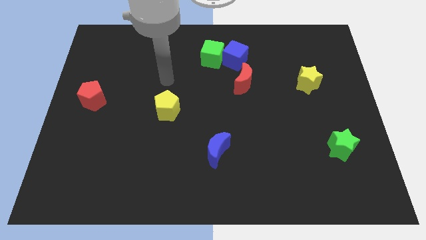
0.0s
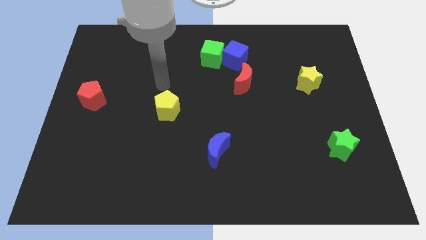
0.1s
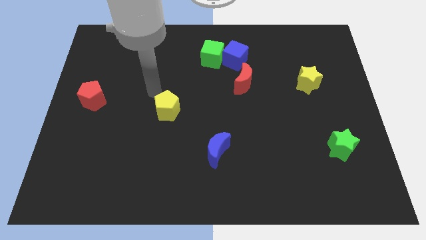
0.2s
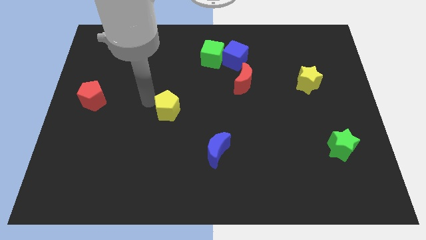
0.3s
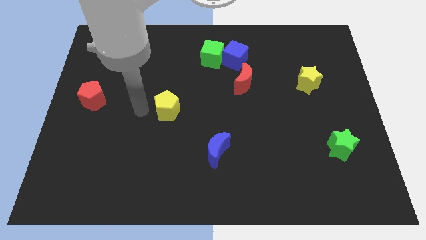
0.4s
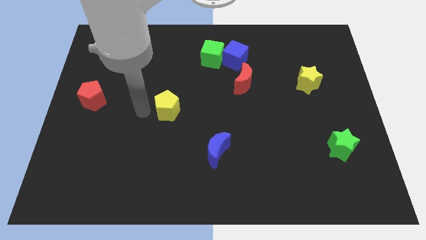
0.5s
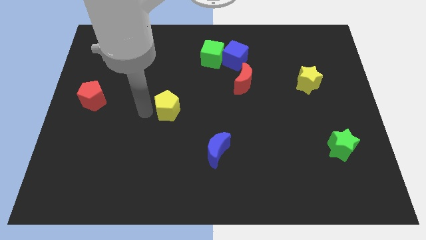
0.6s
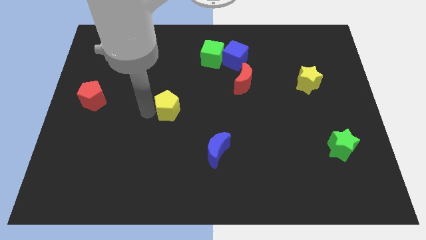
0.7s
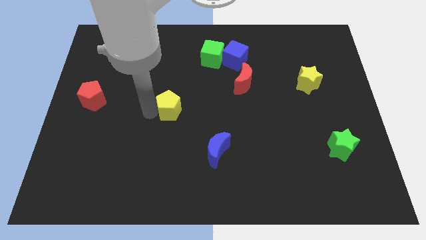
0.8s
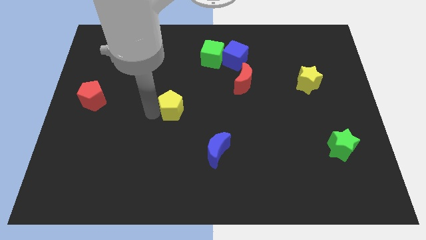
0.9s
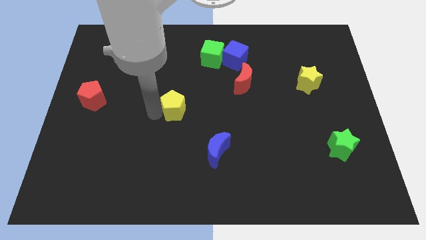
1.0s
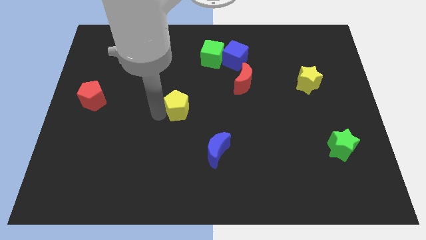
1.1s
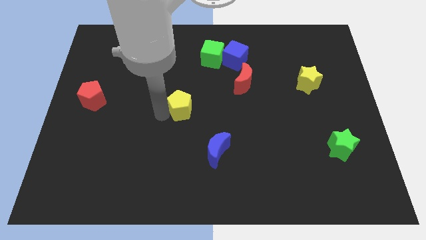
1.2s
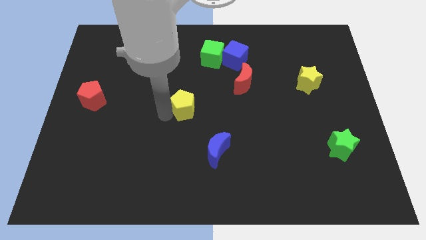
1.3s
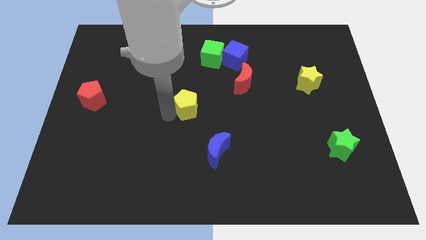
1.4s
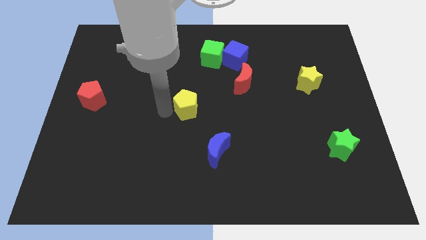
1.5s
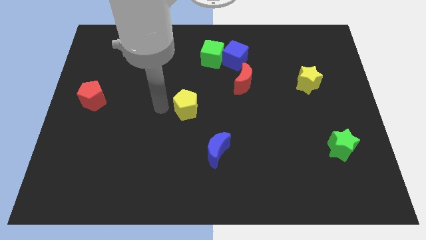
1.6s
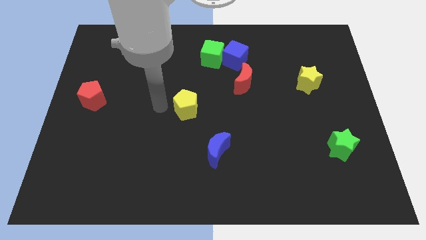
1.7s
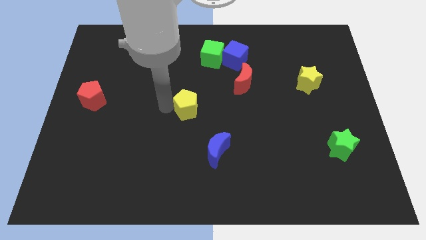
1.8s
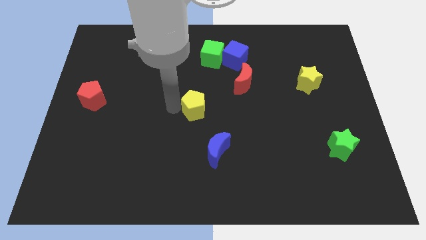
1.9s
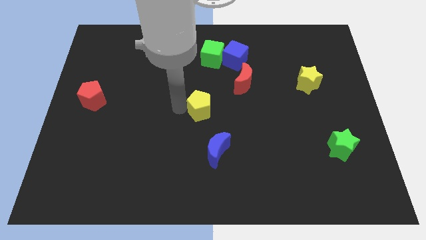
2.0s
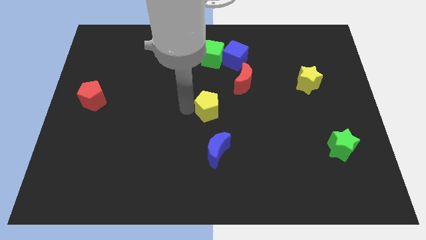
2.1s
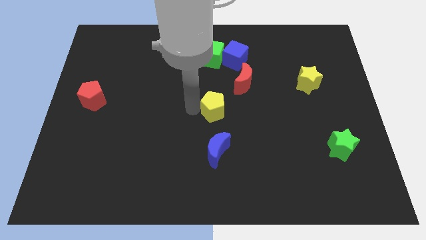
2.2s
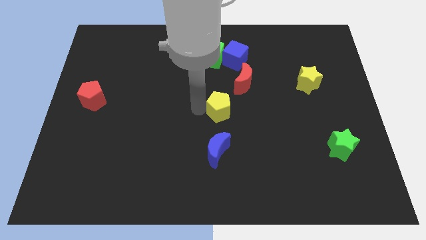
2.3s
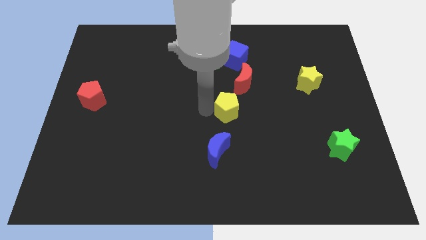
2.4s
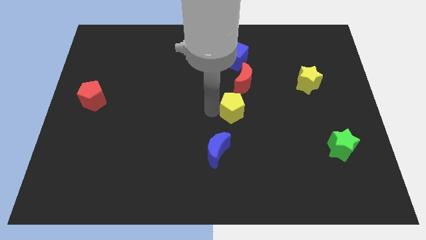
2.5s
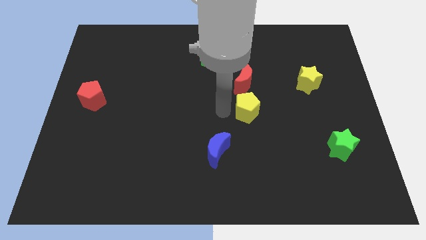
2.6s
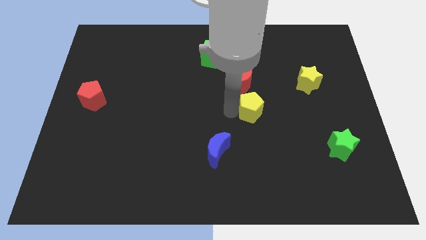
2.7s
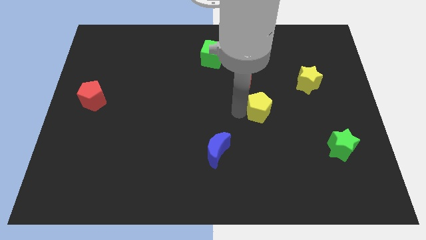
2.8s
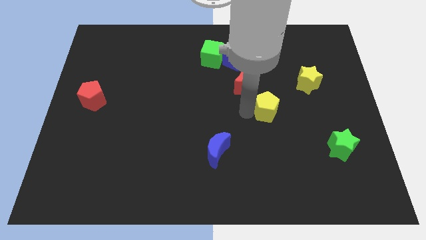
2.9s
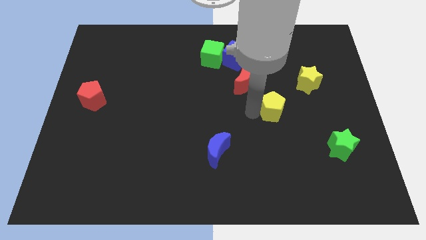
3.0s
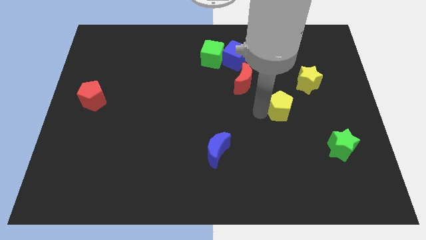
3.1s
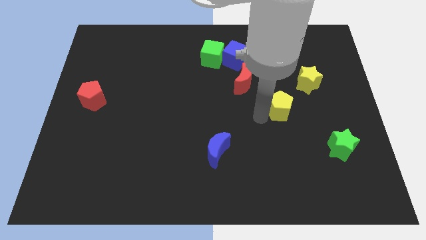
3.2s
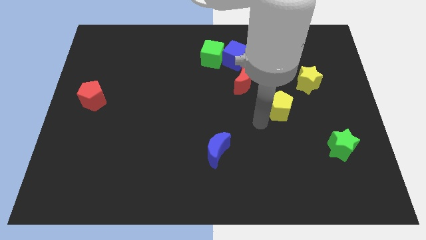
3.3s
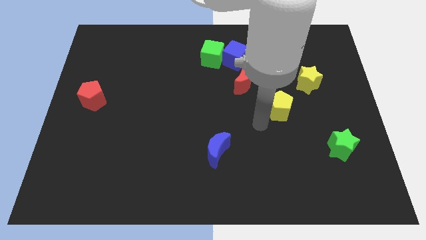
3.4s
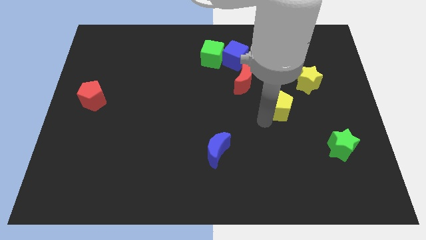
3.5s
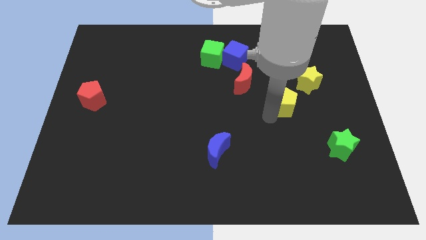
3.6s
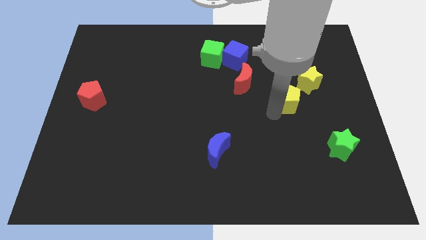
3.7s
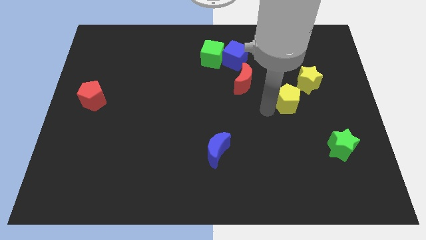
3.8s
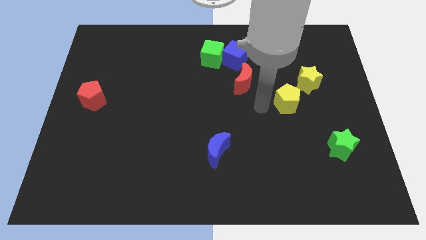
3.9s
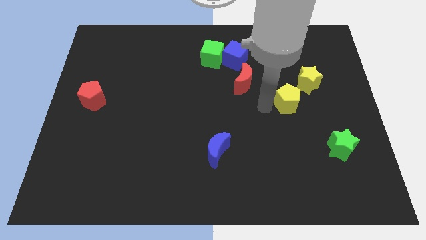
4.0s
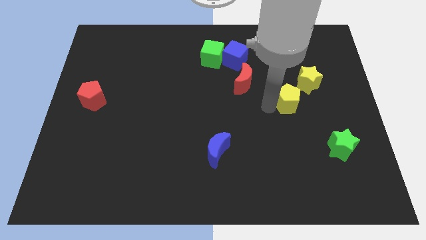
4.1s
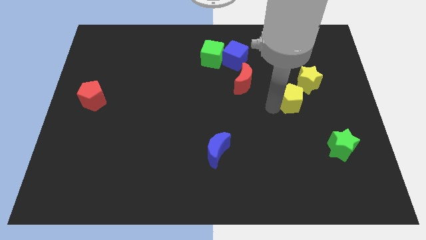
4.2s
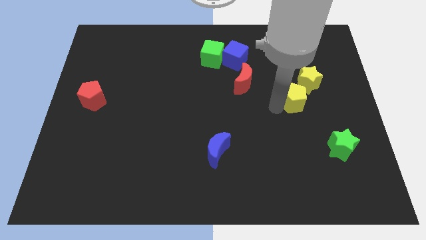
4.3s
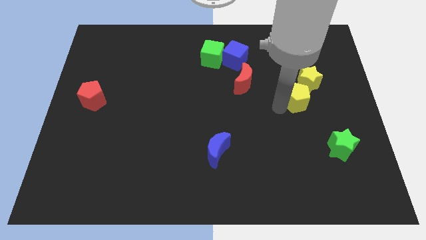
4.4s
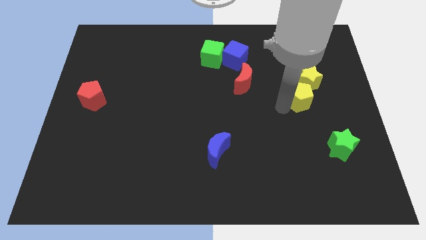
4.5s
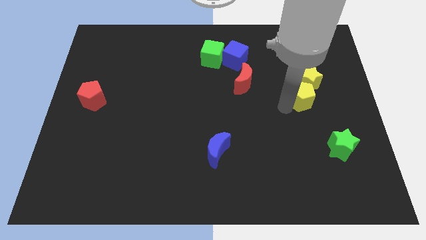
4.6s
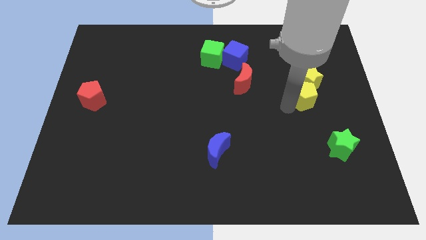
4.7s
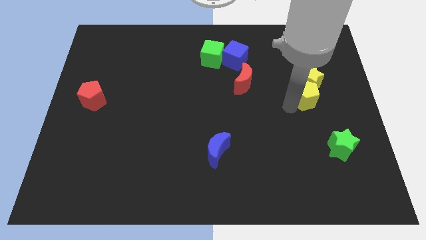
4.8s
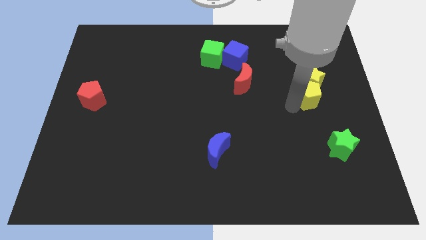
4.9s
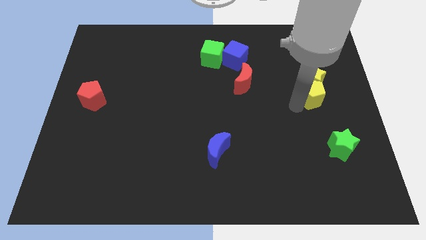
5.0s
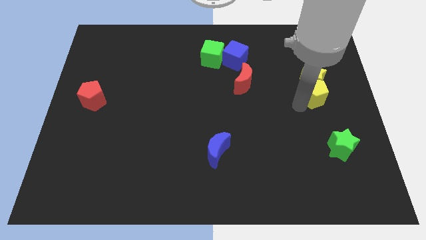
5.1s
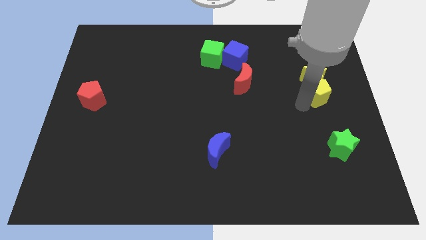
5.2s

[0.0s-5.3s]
push the yellow pentagon to the right side
